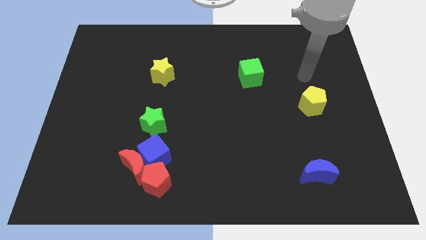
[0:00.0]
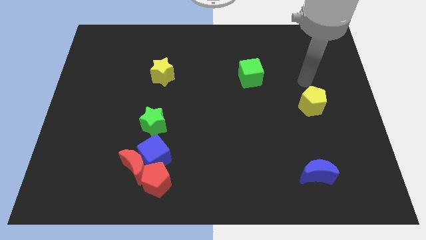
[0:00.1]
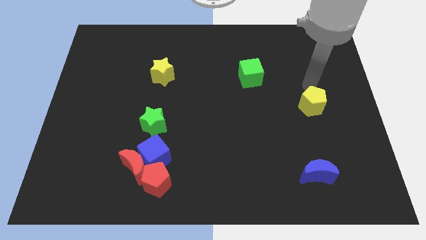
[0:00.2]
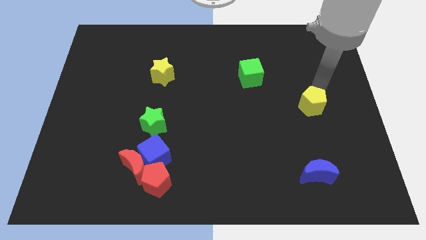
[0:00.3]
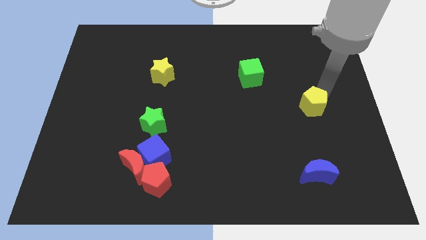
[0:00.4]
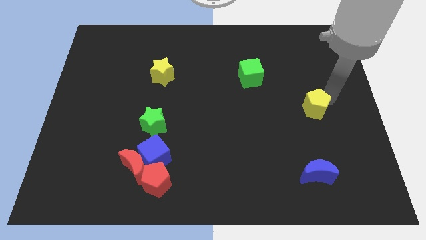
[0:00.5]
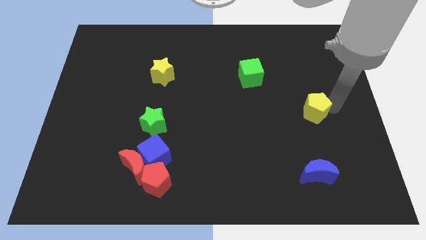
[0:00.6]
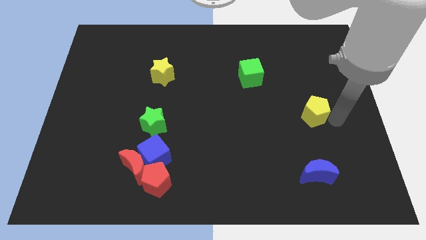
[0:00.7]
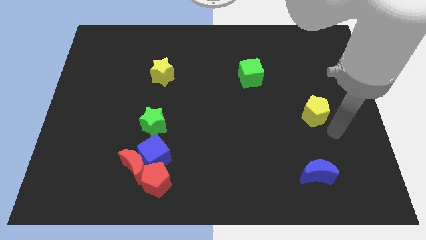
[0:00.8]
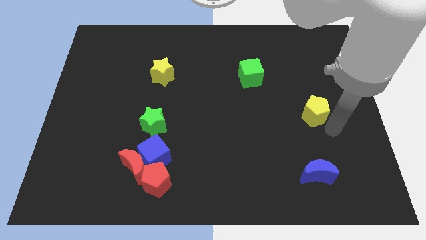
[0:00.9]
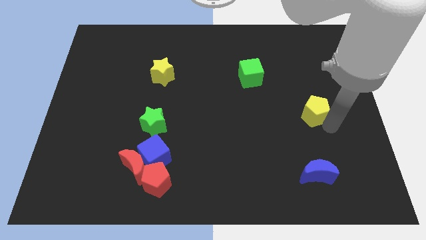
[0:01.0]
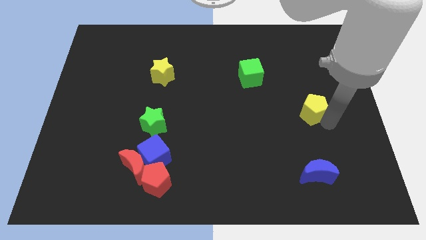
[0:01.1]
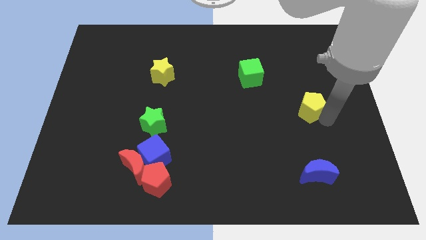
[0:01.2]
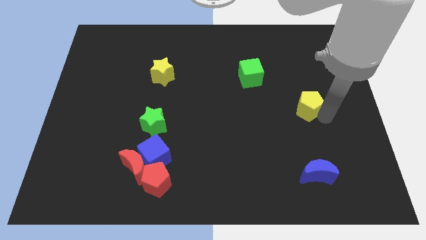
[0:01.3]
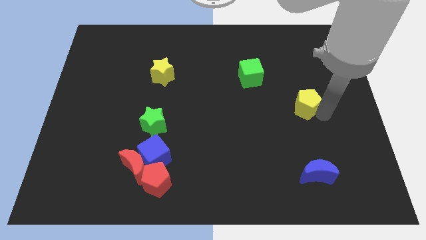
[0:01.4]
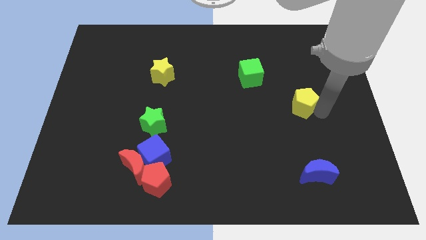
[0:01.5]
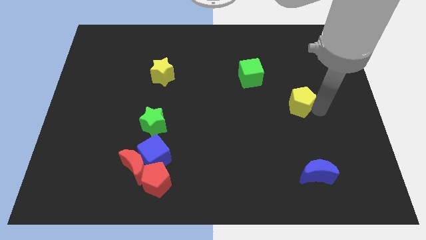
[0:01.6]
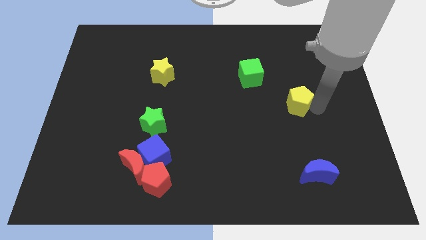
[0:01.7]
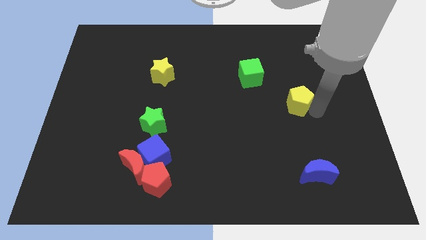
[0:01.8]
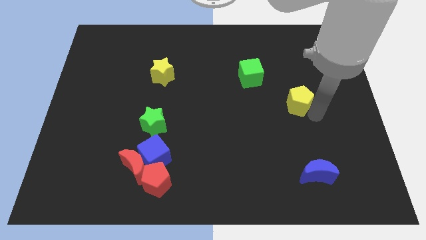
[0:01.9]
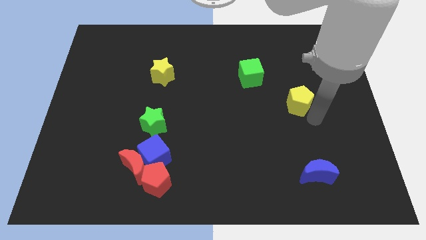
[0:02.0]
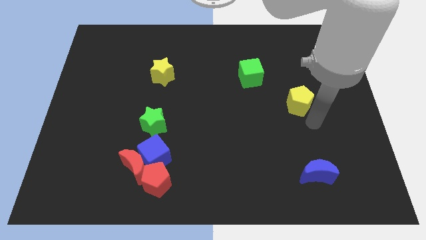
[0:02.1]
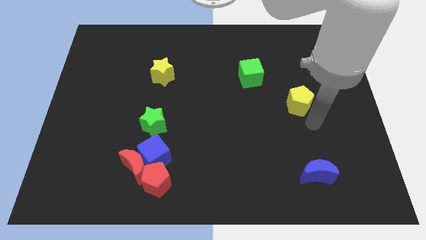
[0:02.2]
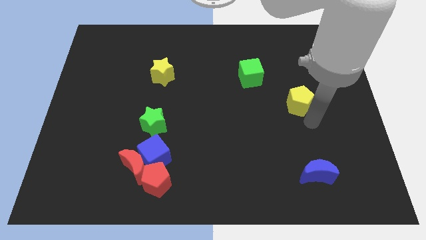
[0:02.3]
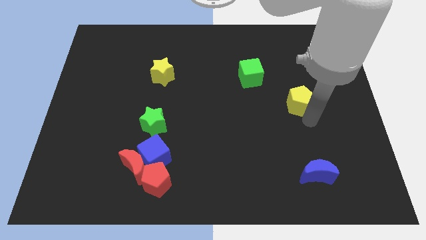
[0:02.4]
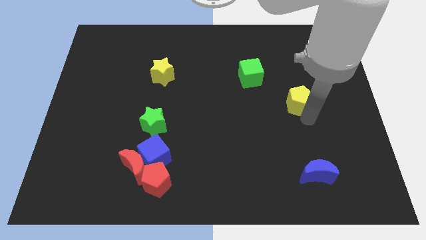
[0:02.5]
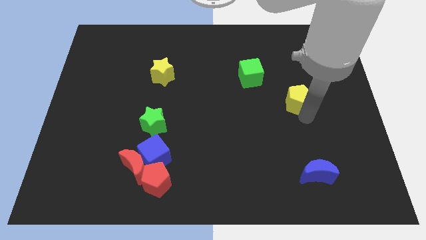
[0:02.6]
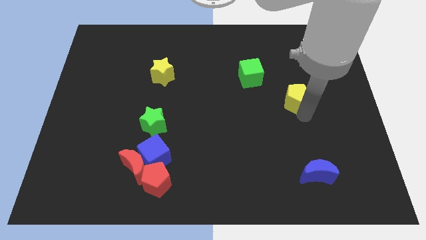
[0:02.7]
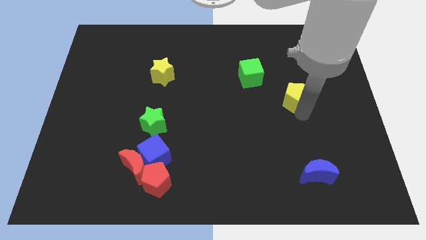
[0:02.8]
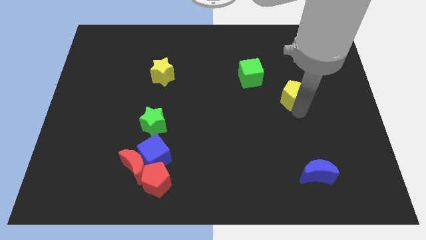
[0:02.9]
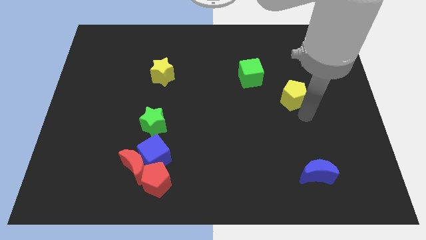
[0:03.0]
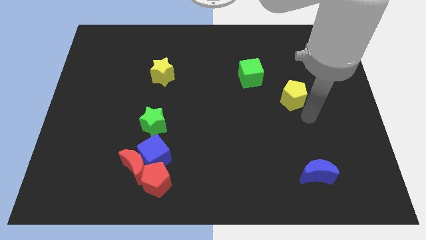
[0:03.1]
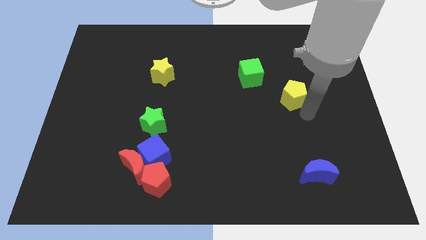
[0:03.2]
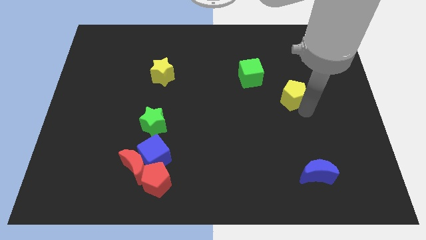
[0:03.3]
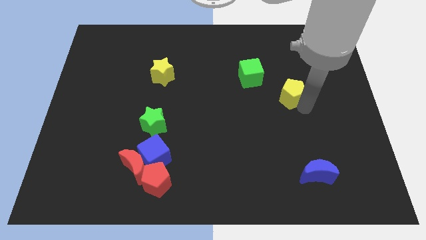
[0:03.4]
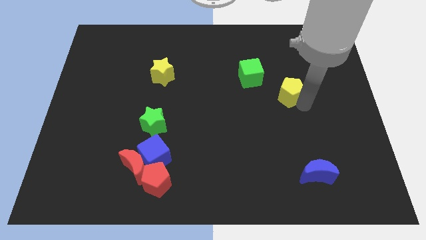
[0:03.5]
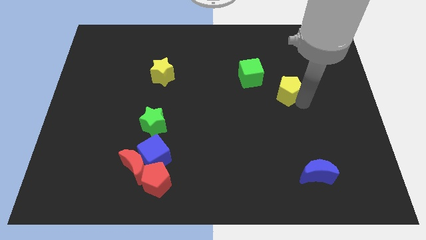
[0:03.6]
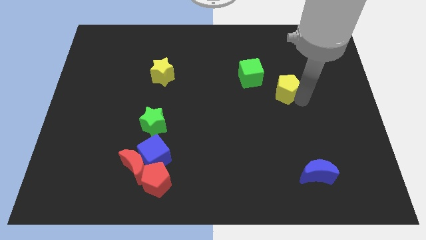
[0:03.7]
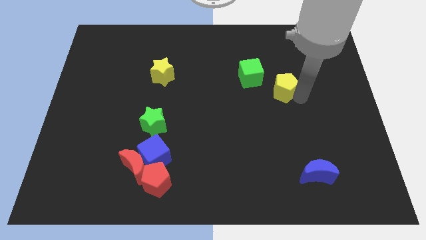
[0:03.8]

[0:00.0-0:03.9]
move the yellow pentagon a little up and to the left

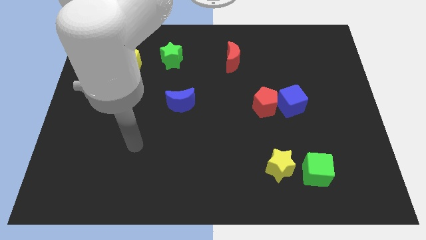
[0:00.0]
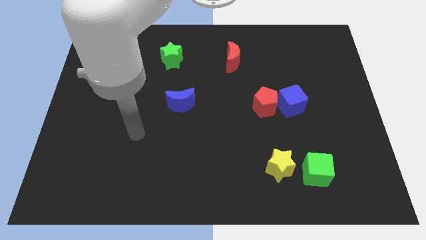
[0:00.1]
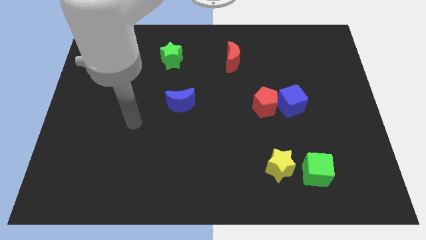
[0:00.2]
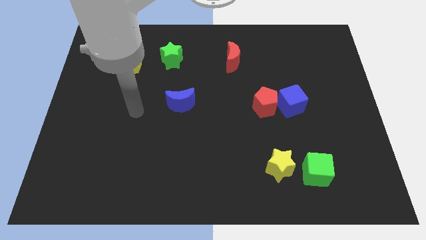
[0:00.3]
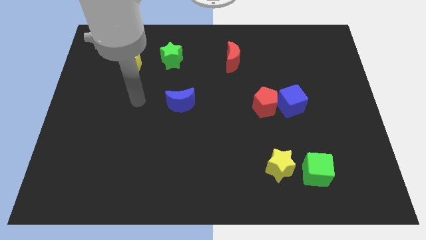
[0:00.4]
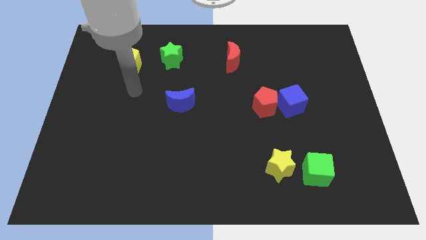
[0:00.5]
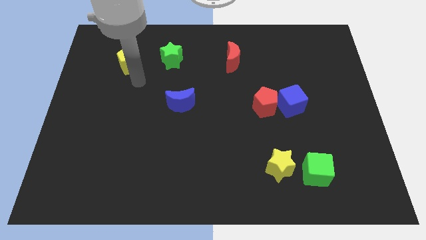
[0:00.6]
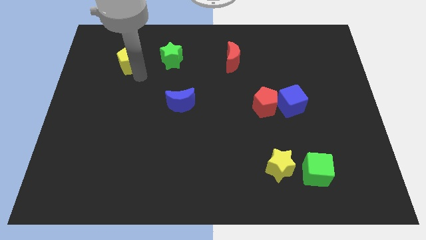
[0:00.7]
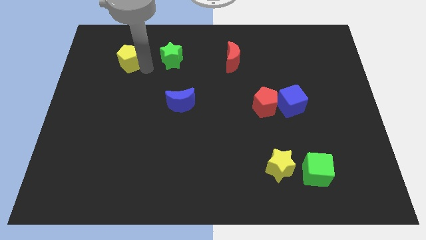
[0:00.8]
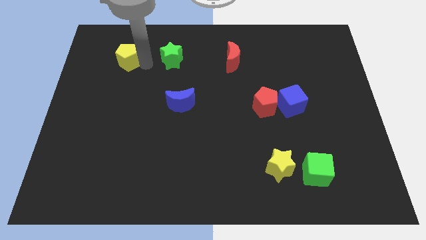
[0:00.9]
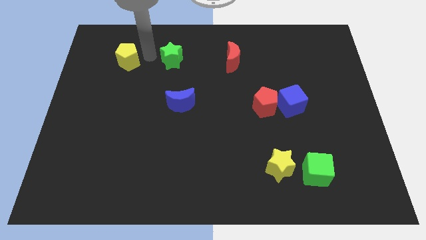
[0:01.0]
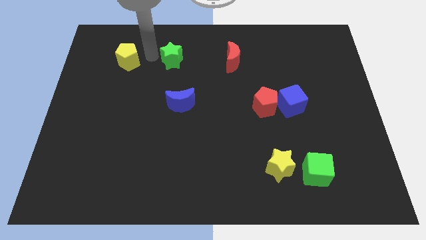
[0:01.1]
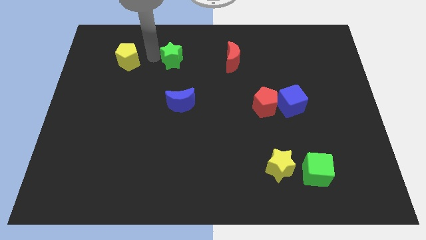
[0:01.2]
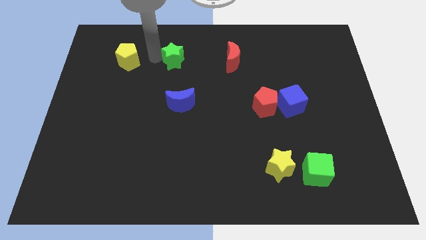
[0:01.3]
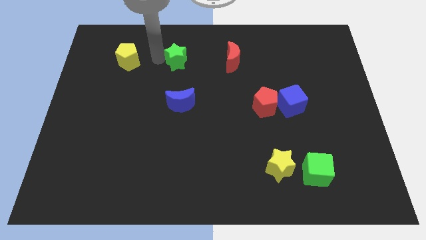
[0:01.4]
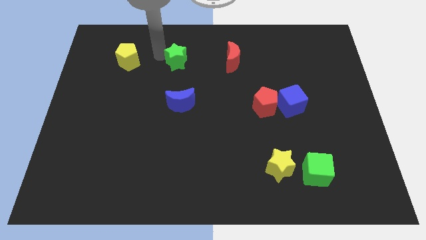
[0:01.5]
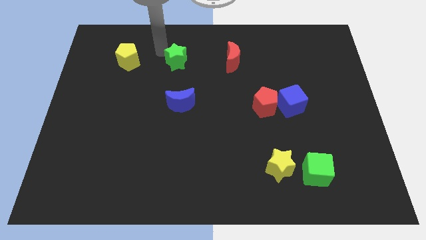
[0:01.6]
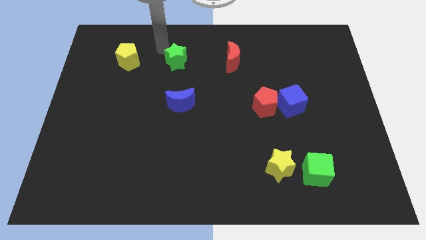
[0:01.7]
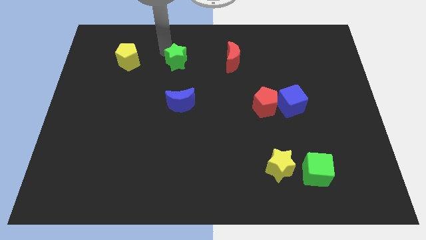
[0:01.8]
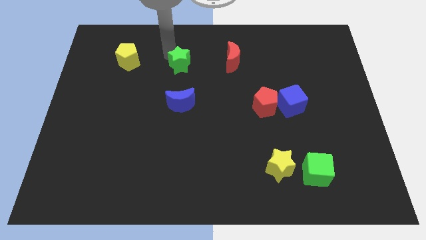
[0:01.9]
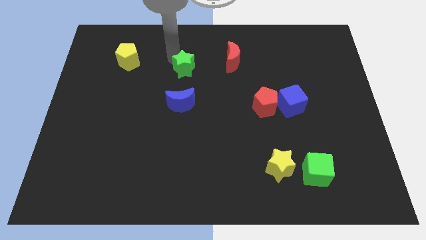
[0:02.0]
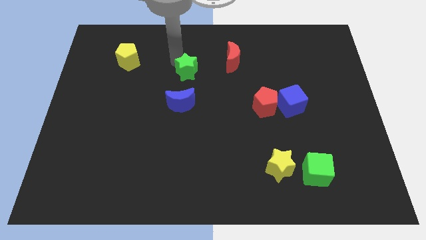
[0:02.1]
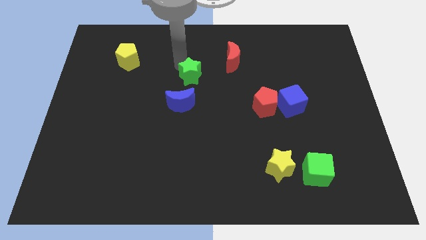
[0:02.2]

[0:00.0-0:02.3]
slightly slide the green star downwards and then right

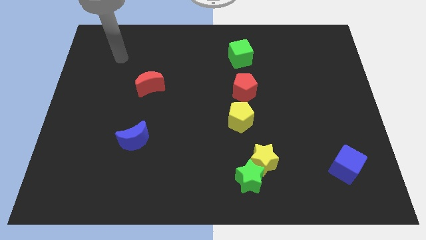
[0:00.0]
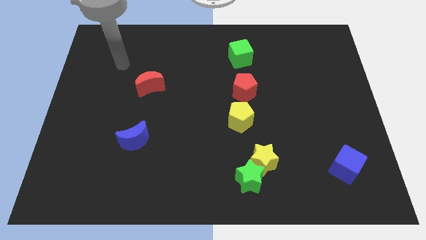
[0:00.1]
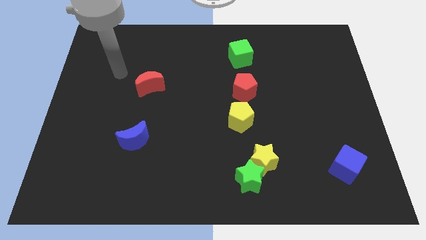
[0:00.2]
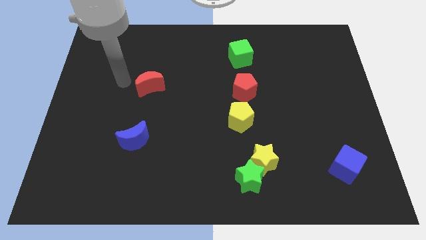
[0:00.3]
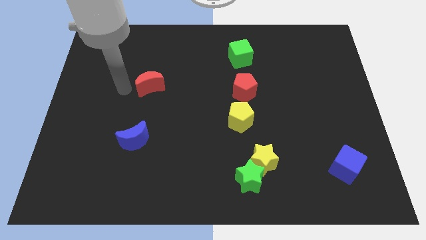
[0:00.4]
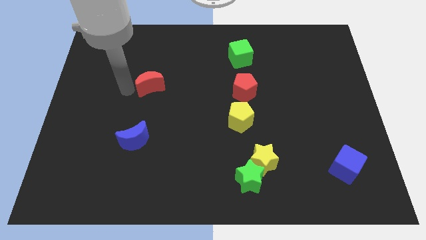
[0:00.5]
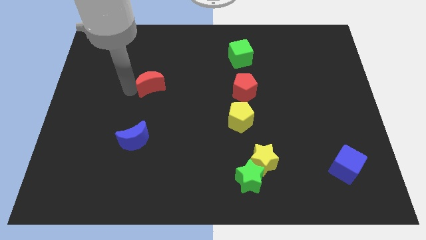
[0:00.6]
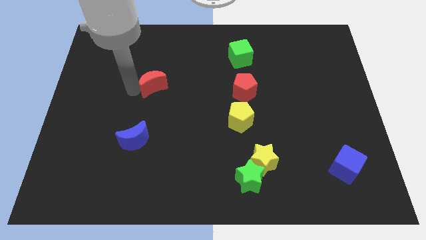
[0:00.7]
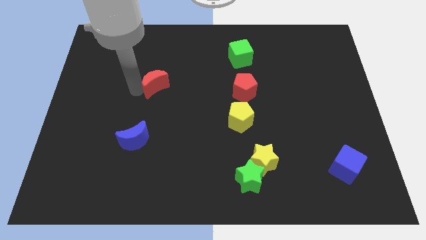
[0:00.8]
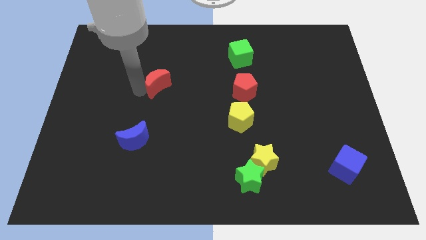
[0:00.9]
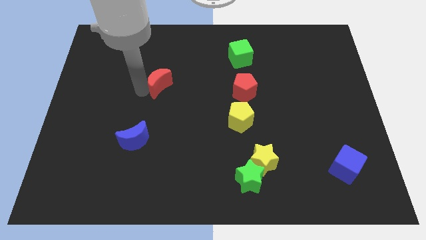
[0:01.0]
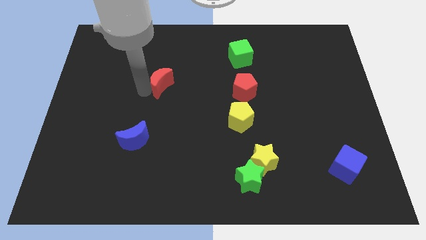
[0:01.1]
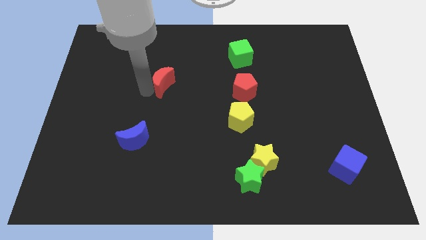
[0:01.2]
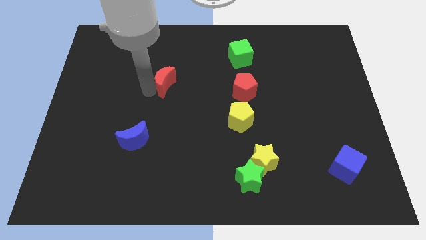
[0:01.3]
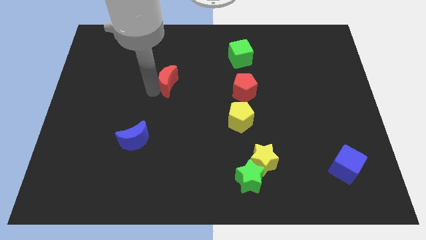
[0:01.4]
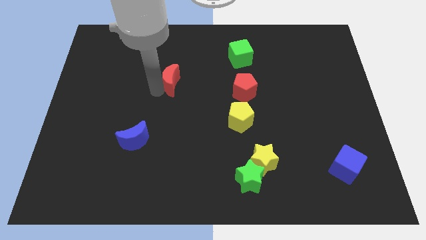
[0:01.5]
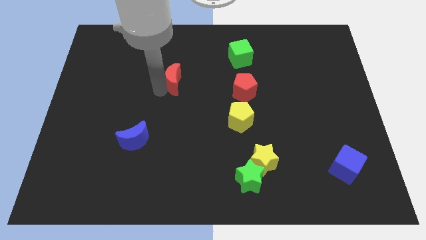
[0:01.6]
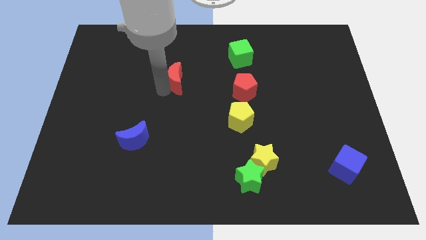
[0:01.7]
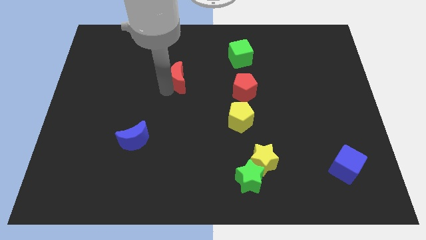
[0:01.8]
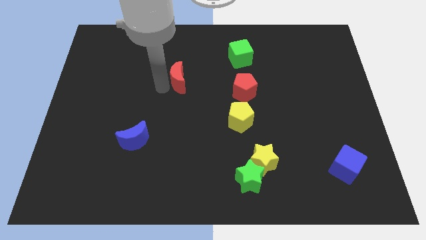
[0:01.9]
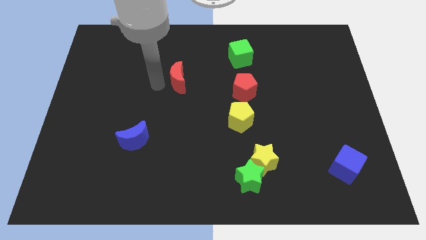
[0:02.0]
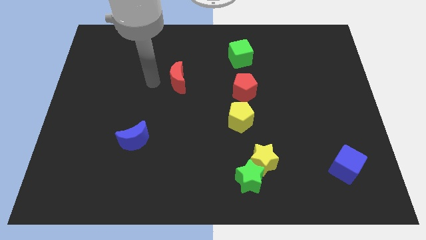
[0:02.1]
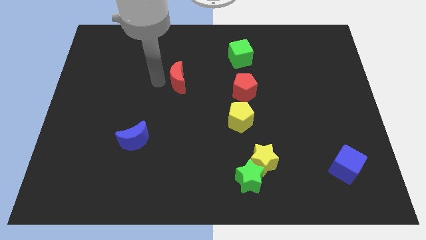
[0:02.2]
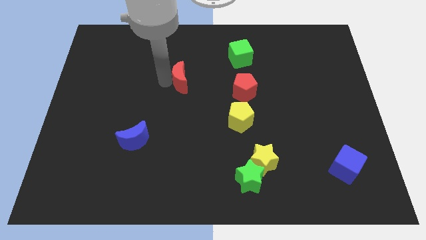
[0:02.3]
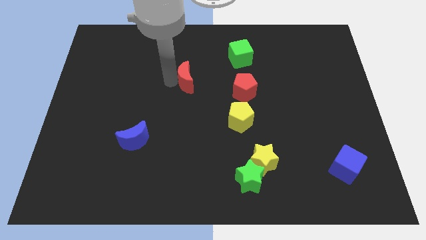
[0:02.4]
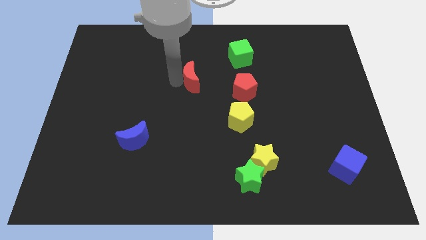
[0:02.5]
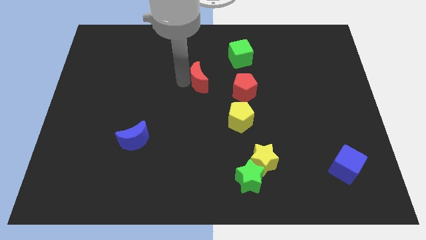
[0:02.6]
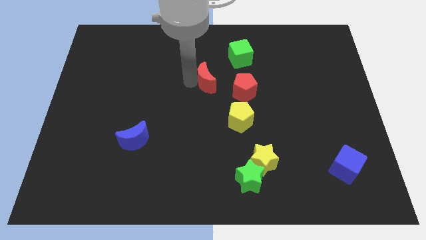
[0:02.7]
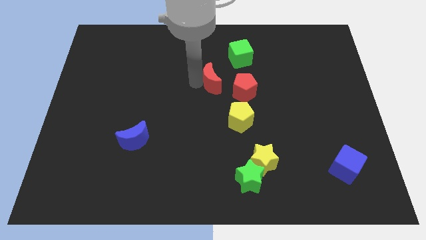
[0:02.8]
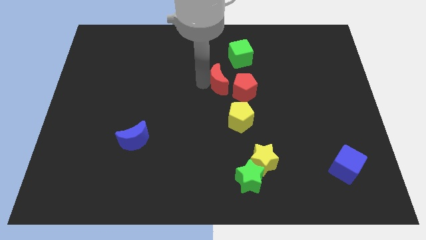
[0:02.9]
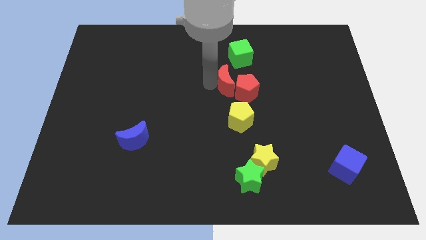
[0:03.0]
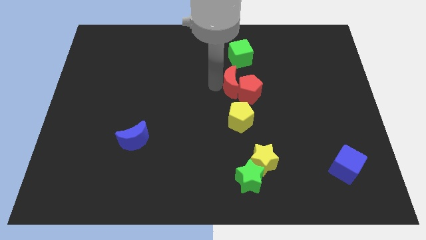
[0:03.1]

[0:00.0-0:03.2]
push the red moon to the right
